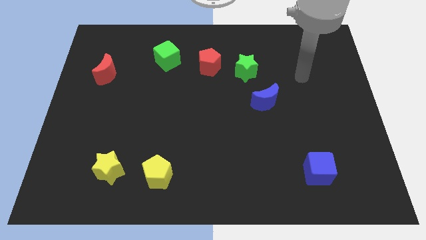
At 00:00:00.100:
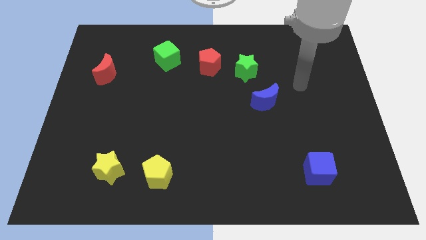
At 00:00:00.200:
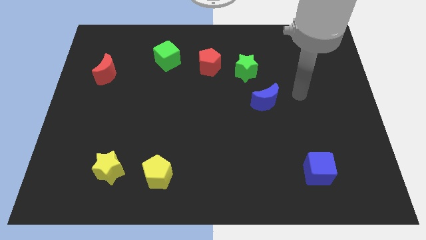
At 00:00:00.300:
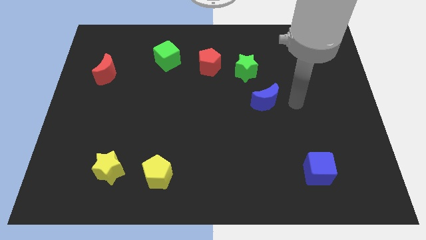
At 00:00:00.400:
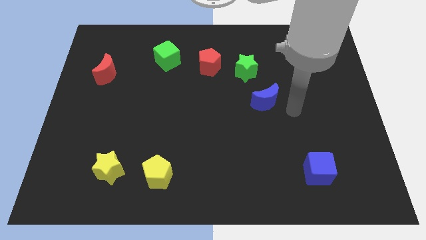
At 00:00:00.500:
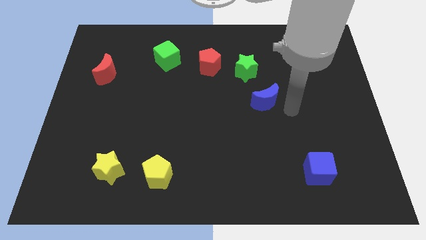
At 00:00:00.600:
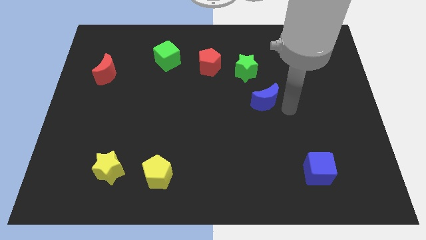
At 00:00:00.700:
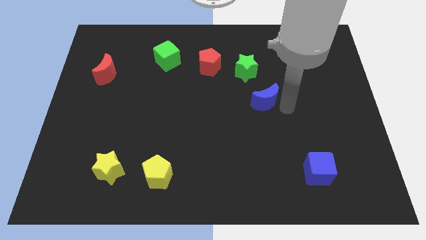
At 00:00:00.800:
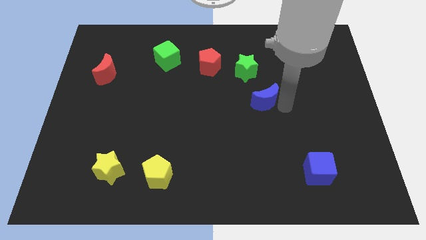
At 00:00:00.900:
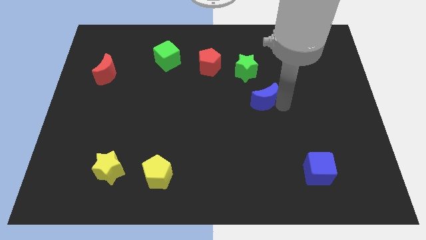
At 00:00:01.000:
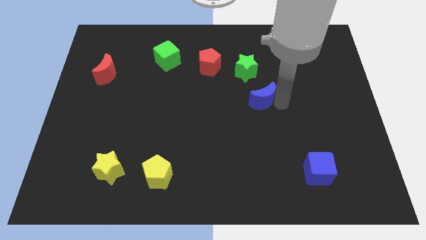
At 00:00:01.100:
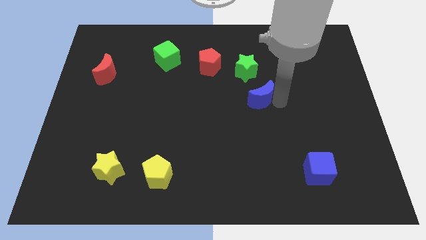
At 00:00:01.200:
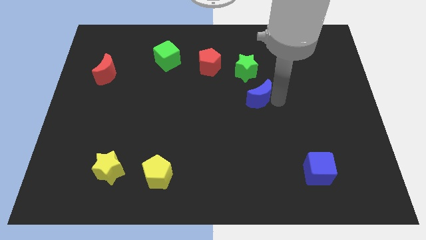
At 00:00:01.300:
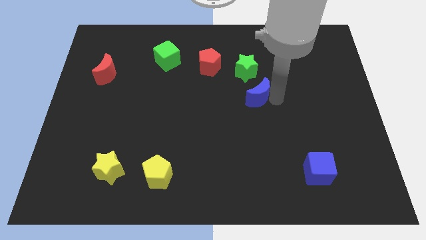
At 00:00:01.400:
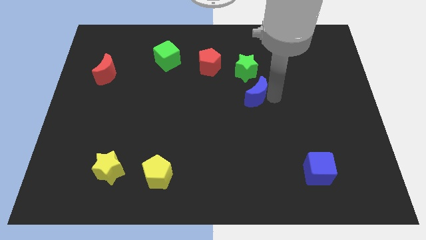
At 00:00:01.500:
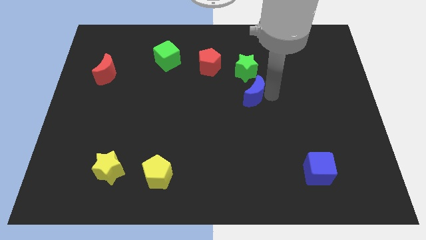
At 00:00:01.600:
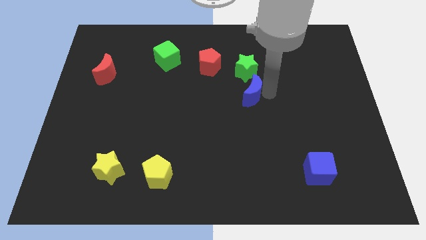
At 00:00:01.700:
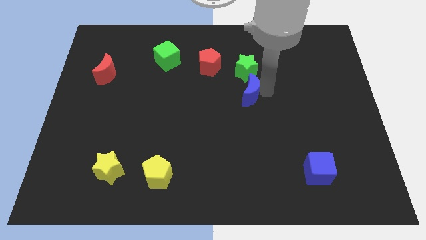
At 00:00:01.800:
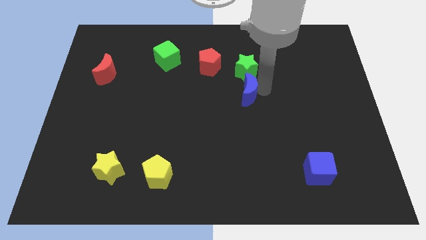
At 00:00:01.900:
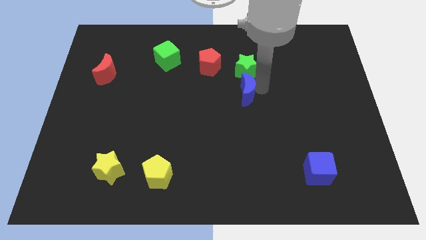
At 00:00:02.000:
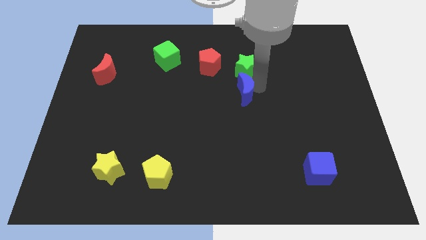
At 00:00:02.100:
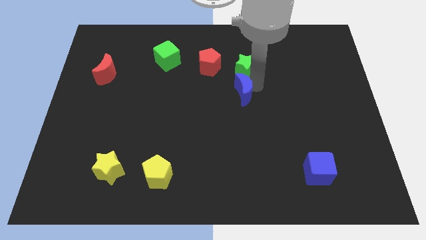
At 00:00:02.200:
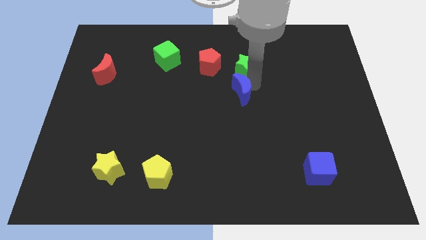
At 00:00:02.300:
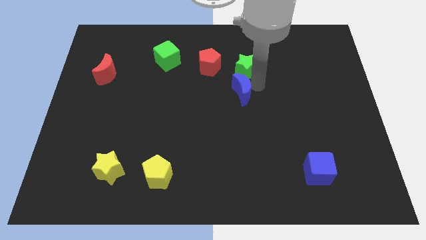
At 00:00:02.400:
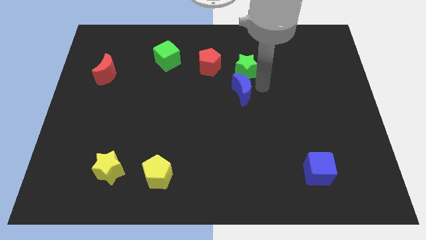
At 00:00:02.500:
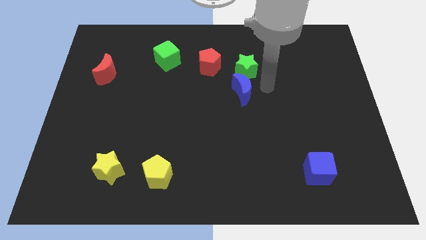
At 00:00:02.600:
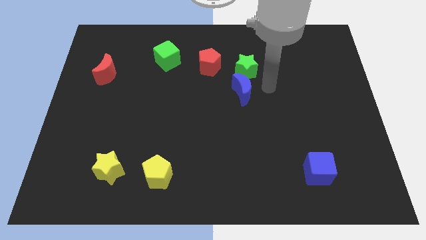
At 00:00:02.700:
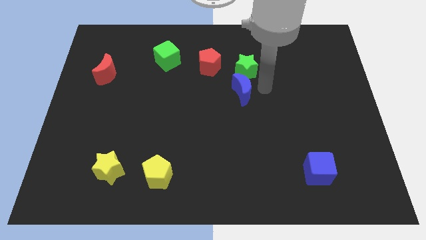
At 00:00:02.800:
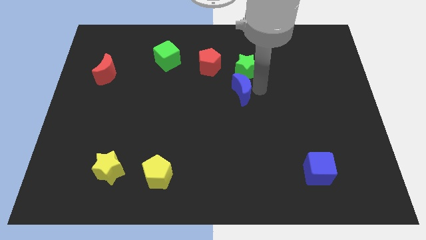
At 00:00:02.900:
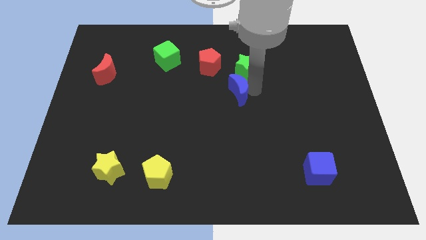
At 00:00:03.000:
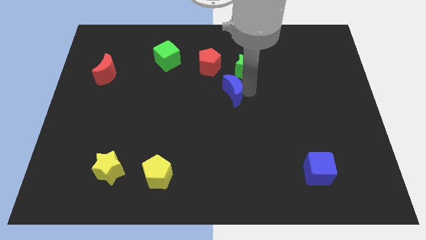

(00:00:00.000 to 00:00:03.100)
move the blue moon left somewhat

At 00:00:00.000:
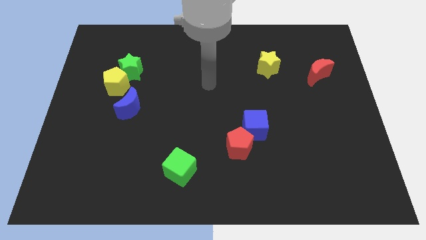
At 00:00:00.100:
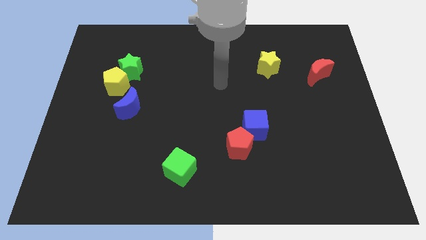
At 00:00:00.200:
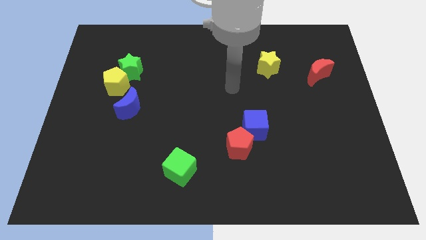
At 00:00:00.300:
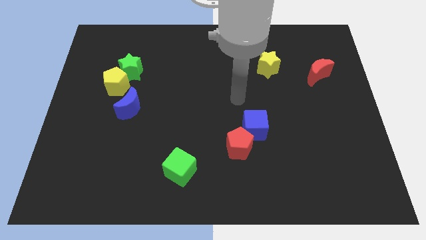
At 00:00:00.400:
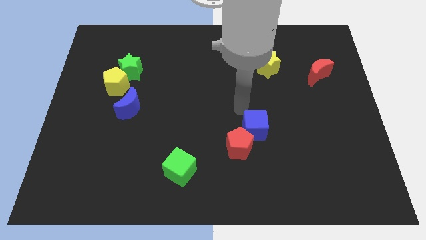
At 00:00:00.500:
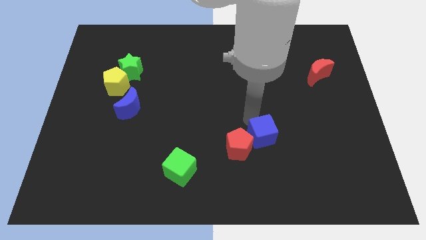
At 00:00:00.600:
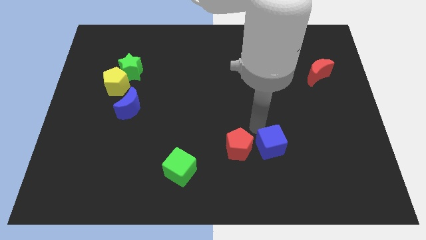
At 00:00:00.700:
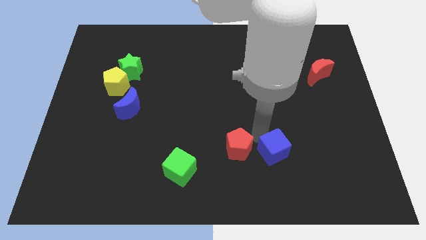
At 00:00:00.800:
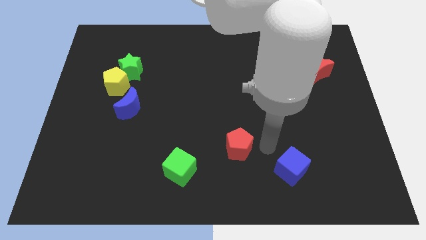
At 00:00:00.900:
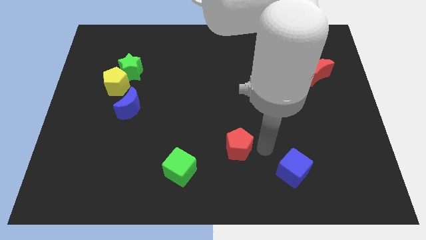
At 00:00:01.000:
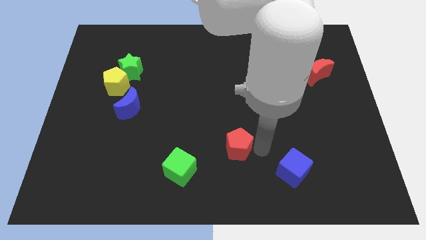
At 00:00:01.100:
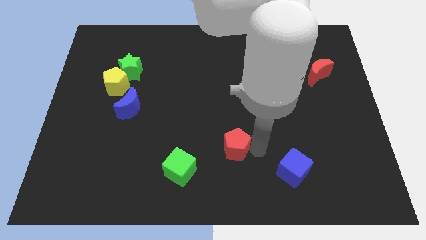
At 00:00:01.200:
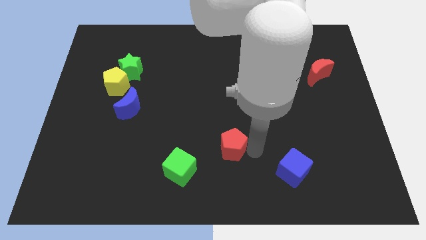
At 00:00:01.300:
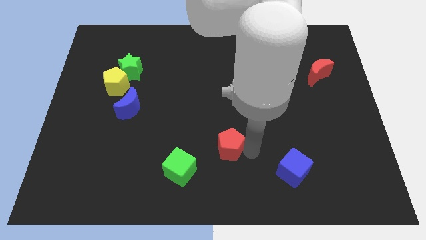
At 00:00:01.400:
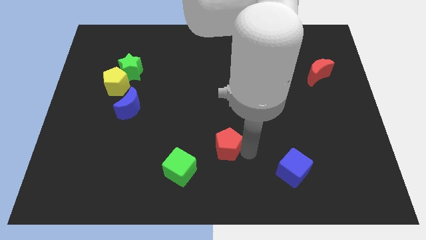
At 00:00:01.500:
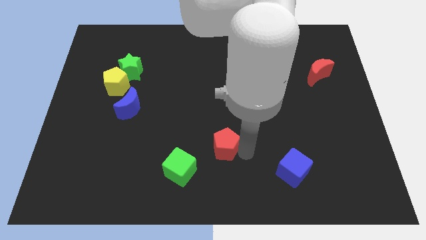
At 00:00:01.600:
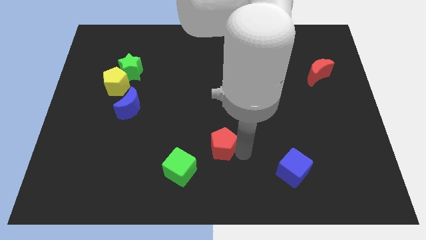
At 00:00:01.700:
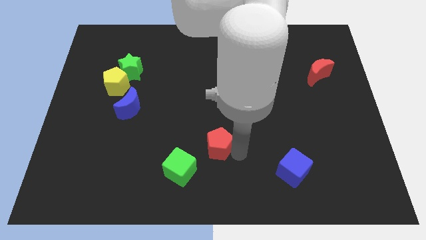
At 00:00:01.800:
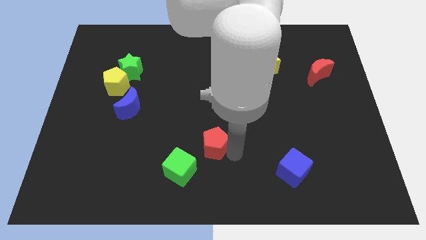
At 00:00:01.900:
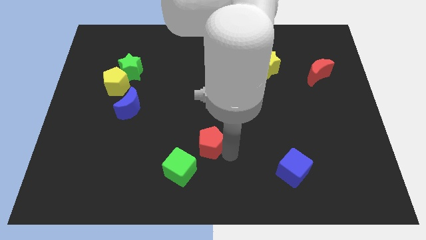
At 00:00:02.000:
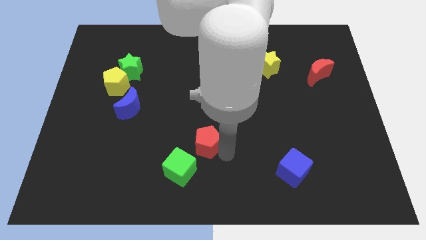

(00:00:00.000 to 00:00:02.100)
slide the red pentagon a bit left

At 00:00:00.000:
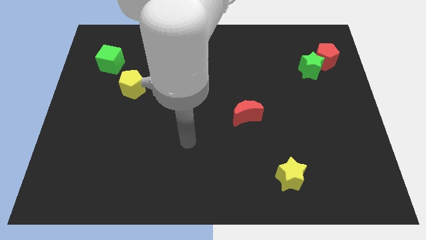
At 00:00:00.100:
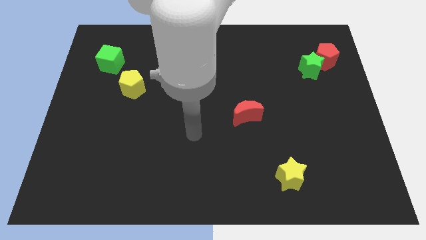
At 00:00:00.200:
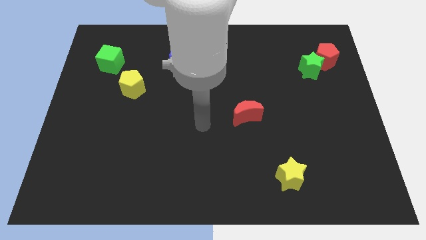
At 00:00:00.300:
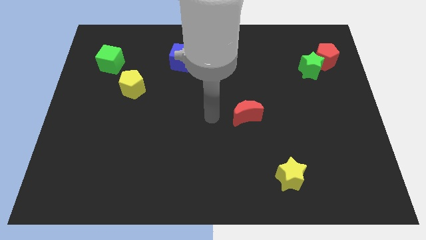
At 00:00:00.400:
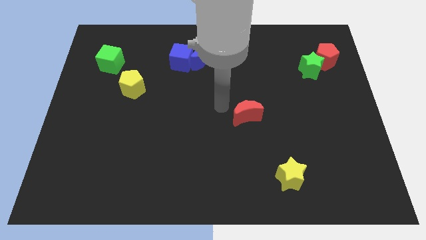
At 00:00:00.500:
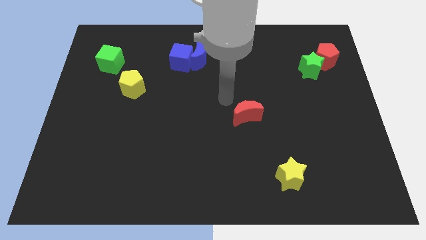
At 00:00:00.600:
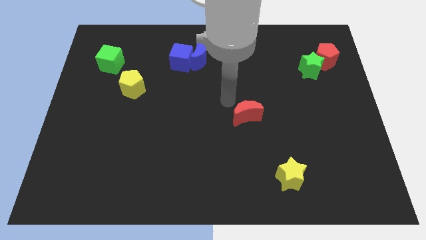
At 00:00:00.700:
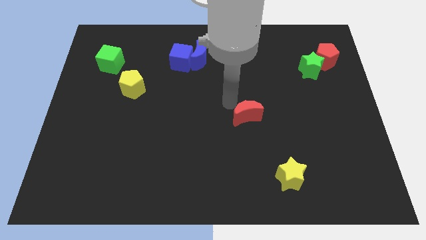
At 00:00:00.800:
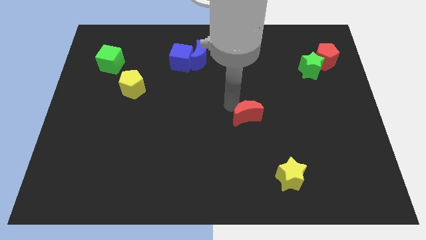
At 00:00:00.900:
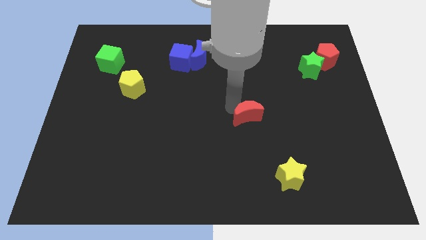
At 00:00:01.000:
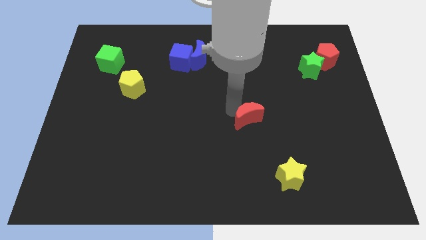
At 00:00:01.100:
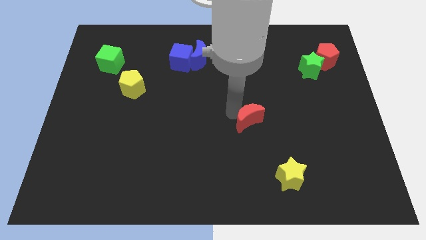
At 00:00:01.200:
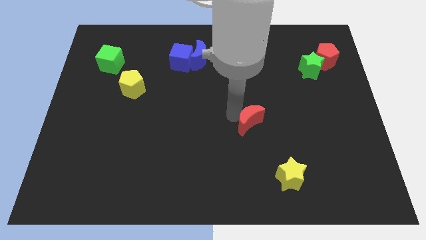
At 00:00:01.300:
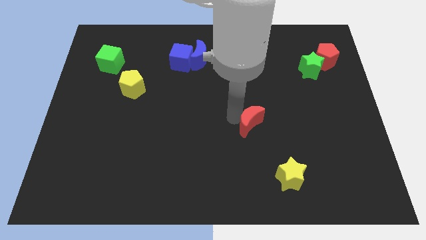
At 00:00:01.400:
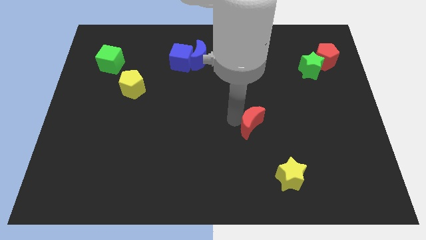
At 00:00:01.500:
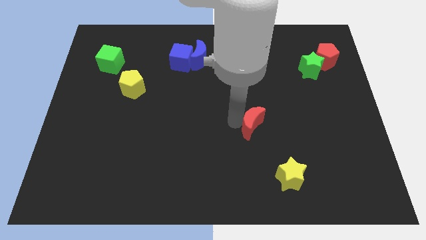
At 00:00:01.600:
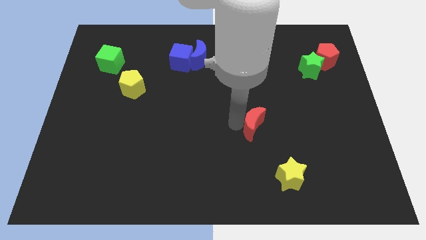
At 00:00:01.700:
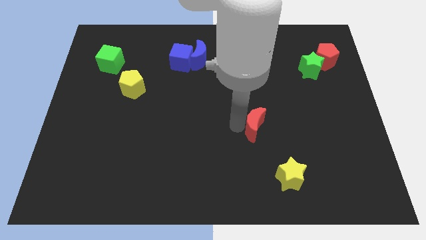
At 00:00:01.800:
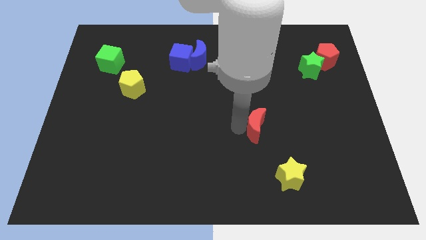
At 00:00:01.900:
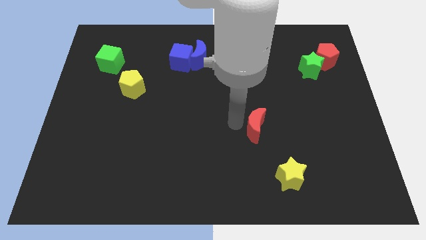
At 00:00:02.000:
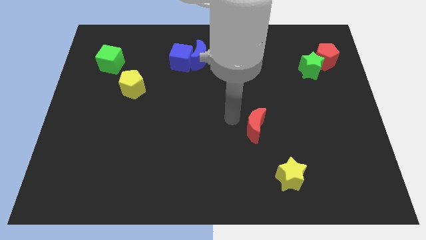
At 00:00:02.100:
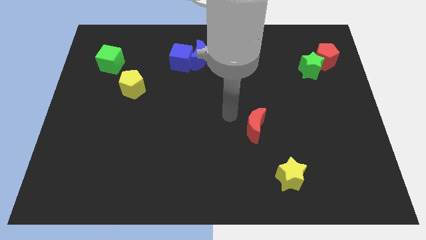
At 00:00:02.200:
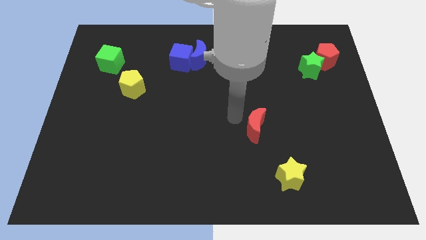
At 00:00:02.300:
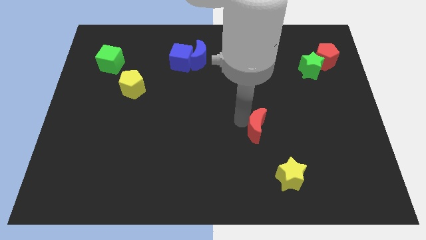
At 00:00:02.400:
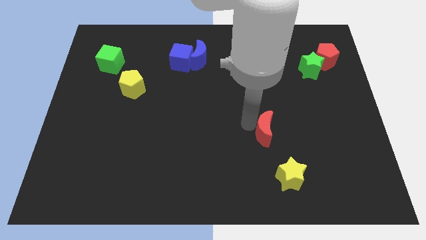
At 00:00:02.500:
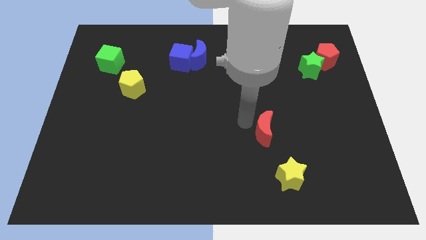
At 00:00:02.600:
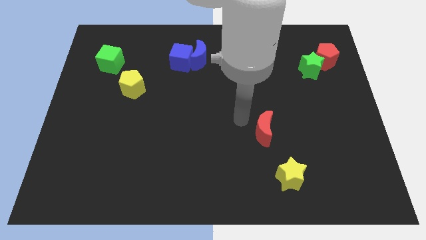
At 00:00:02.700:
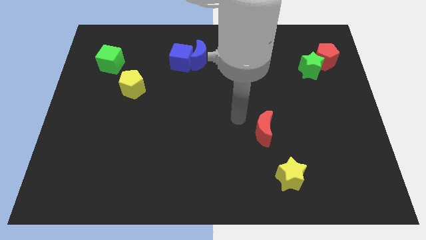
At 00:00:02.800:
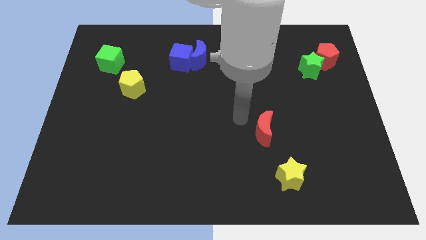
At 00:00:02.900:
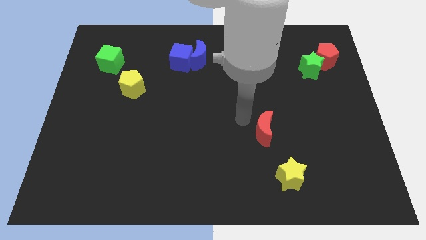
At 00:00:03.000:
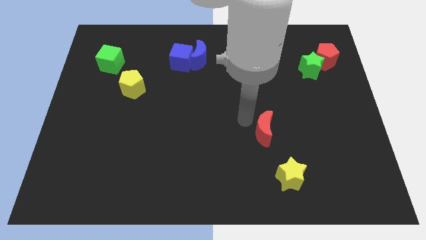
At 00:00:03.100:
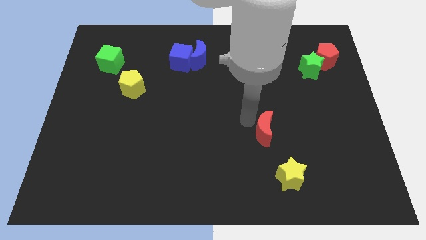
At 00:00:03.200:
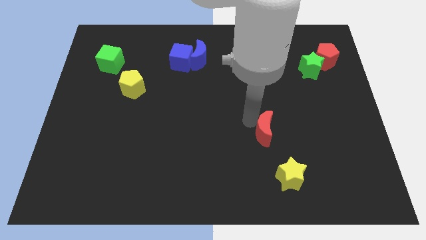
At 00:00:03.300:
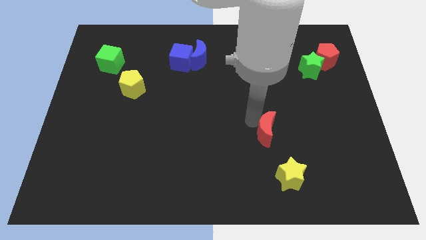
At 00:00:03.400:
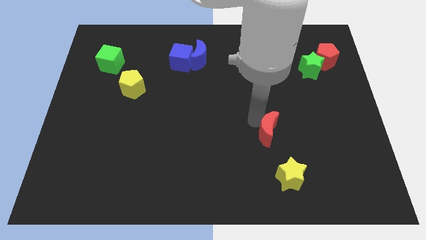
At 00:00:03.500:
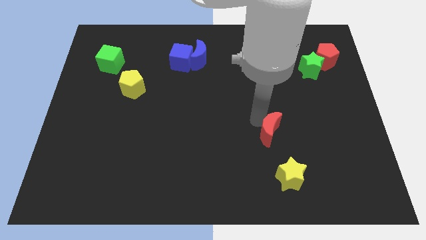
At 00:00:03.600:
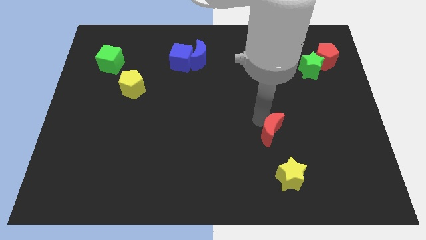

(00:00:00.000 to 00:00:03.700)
push the red moon downwards and right slightly
